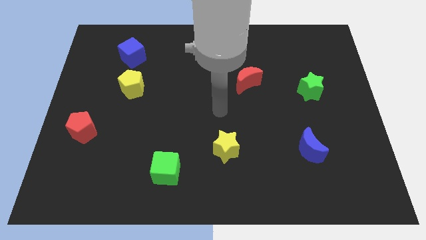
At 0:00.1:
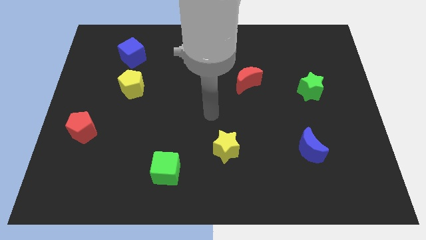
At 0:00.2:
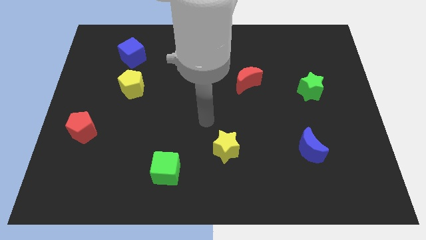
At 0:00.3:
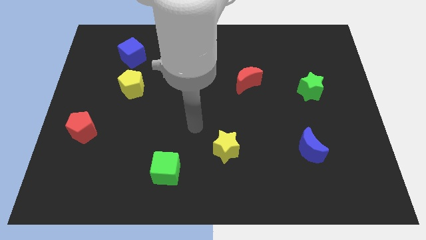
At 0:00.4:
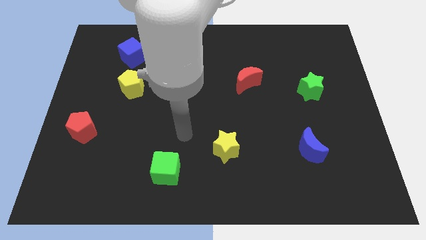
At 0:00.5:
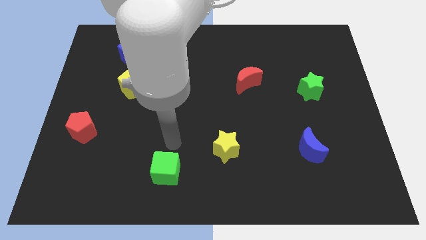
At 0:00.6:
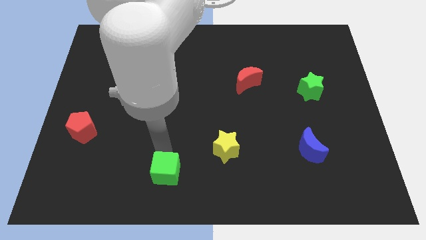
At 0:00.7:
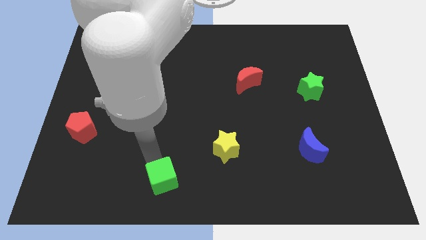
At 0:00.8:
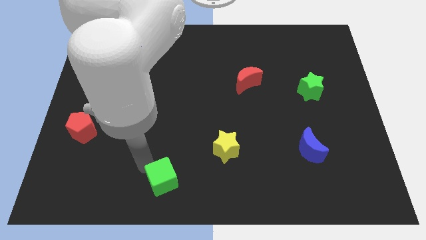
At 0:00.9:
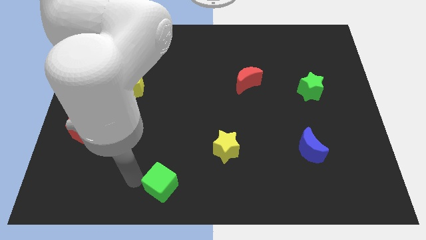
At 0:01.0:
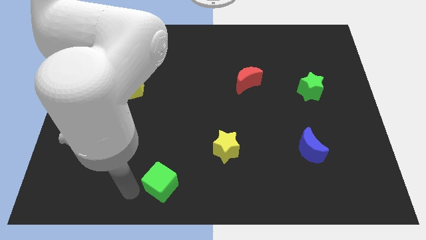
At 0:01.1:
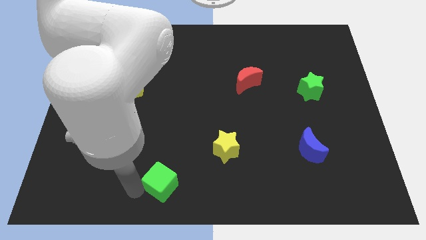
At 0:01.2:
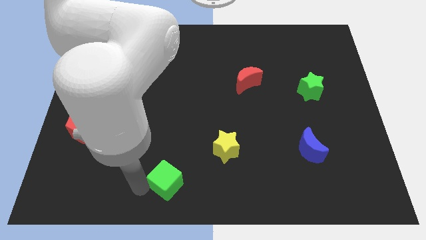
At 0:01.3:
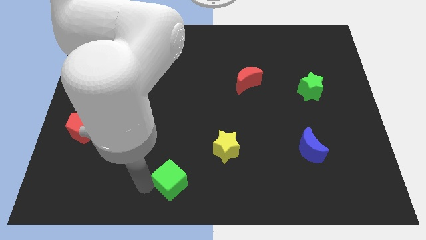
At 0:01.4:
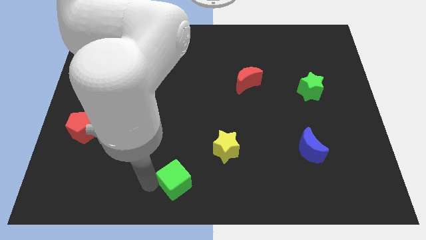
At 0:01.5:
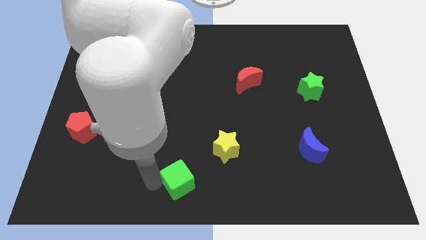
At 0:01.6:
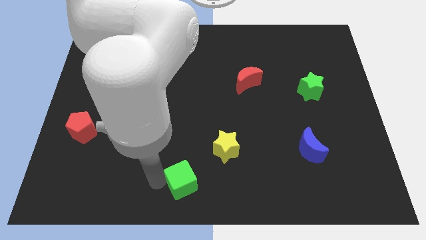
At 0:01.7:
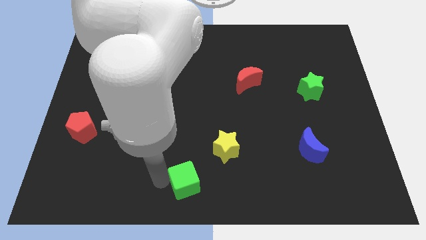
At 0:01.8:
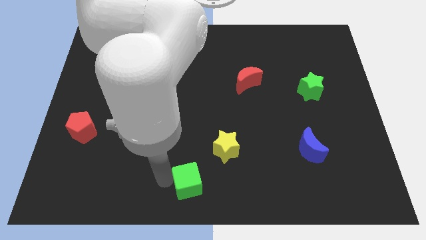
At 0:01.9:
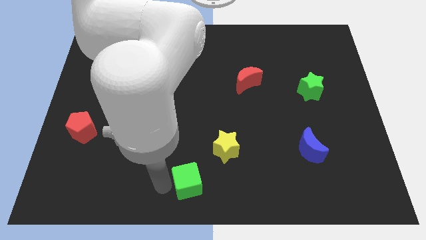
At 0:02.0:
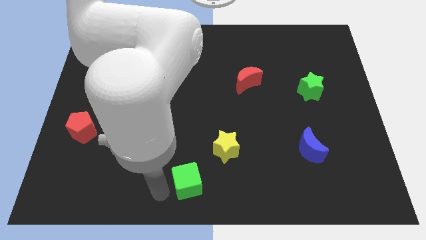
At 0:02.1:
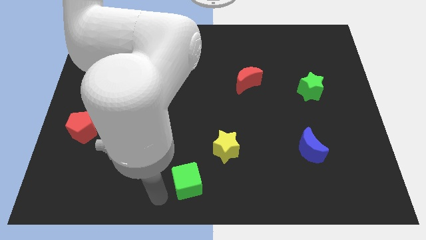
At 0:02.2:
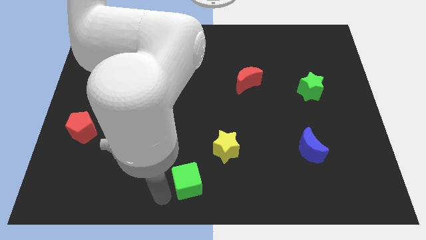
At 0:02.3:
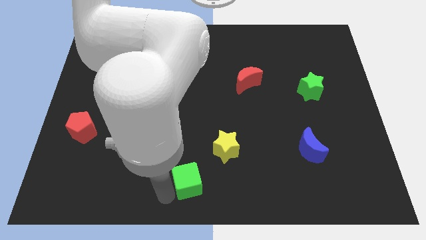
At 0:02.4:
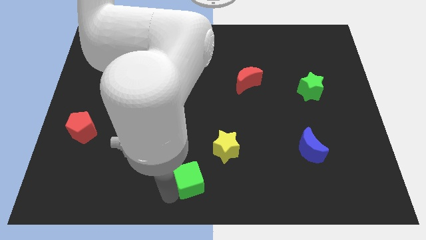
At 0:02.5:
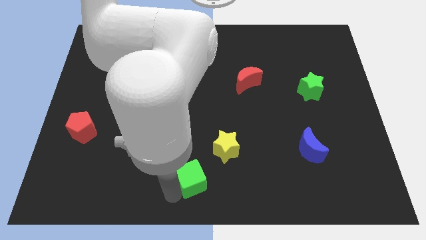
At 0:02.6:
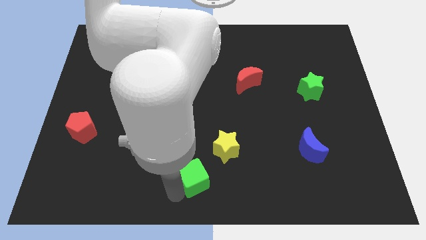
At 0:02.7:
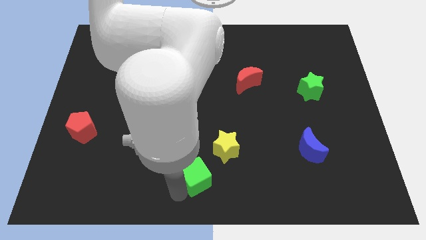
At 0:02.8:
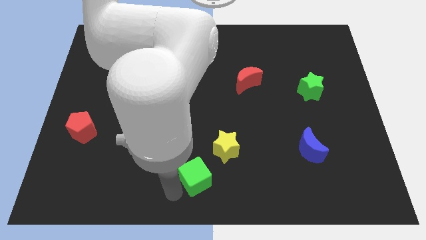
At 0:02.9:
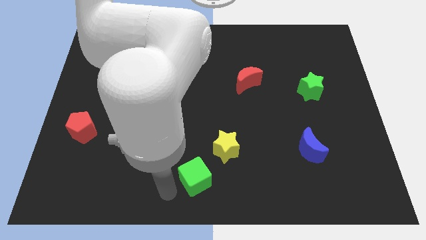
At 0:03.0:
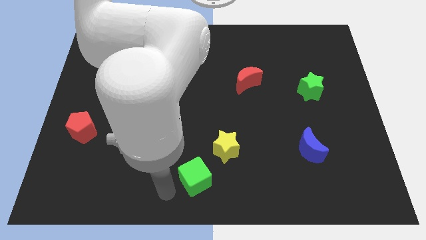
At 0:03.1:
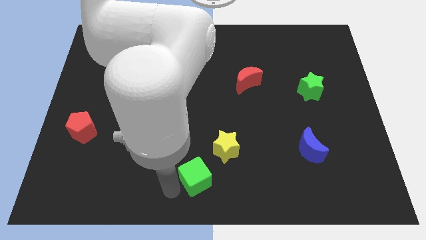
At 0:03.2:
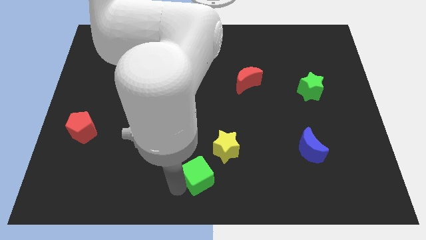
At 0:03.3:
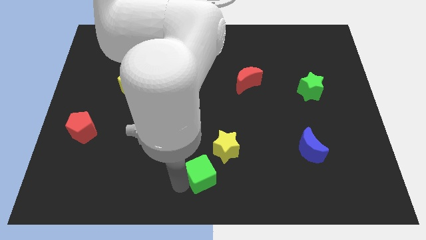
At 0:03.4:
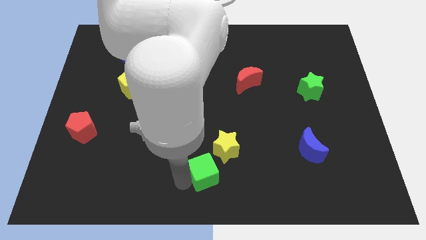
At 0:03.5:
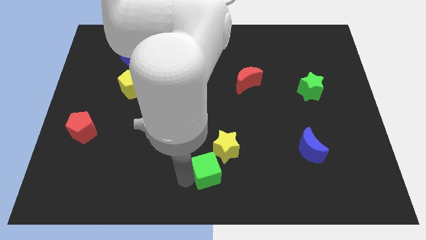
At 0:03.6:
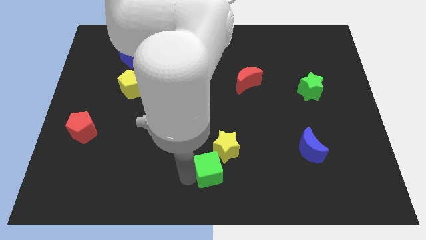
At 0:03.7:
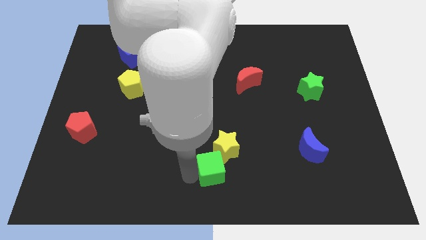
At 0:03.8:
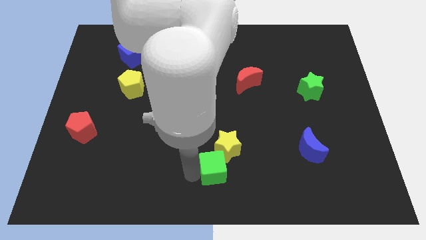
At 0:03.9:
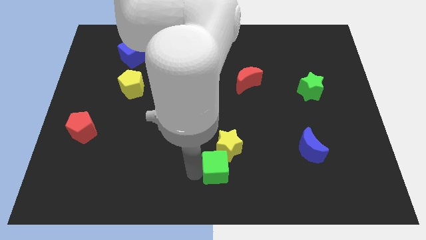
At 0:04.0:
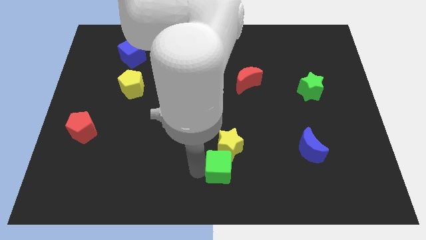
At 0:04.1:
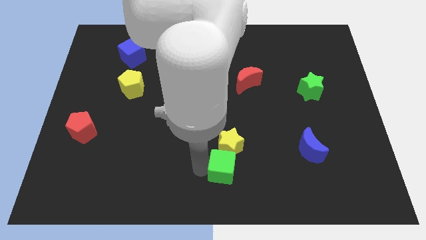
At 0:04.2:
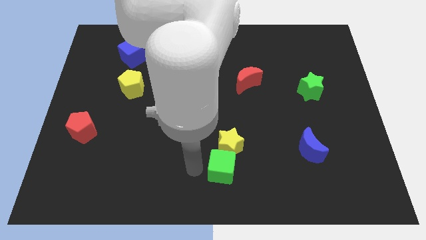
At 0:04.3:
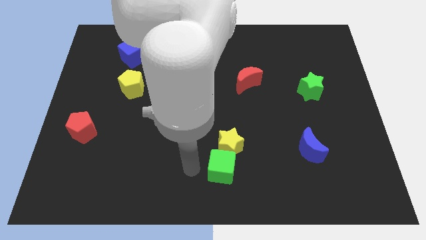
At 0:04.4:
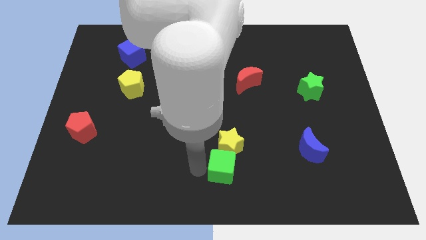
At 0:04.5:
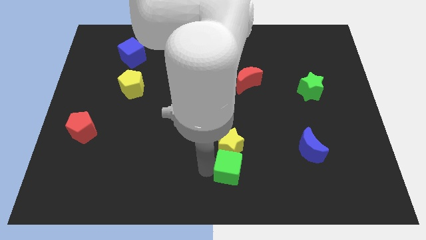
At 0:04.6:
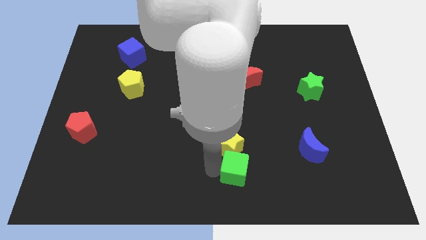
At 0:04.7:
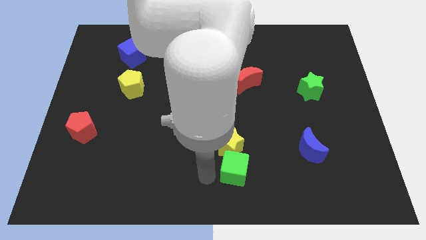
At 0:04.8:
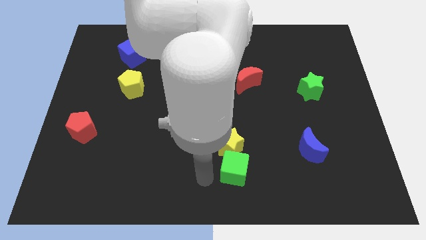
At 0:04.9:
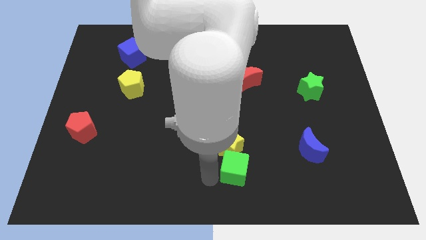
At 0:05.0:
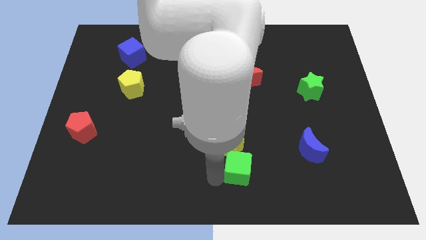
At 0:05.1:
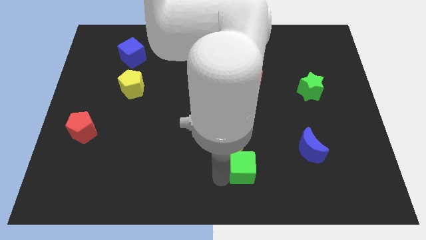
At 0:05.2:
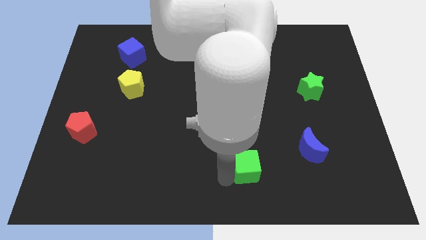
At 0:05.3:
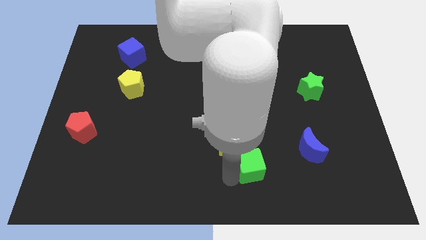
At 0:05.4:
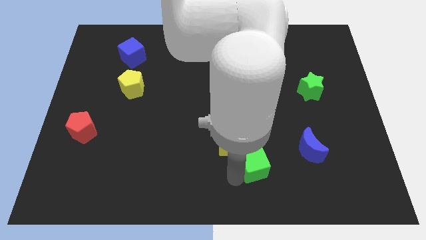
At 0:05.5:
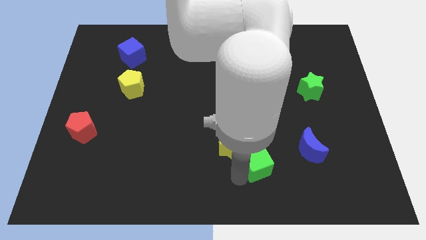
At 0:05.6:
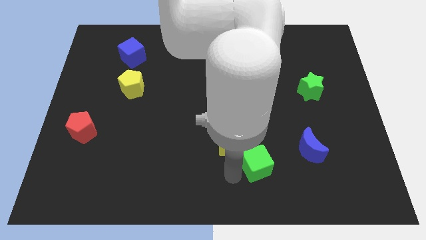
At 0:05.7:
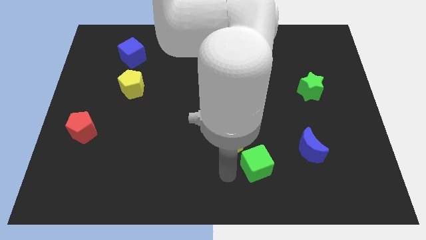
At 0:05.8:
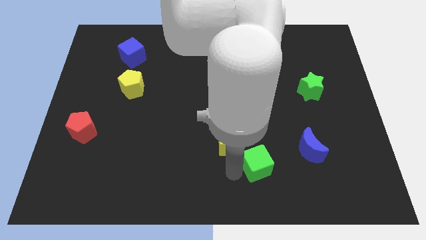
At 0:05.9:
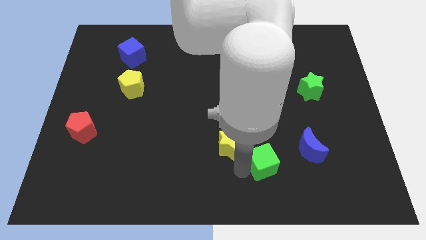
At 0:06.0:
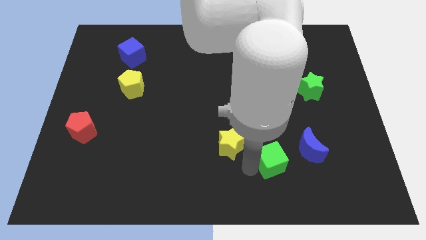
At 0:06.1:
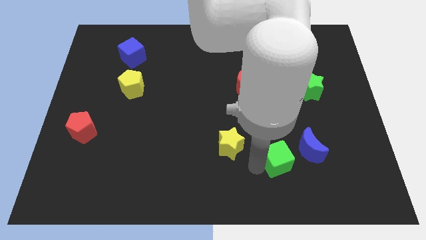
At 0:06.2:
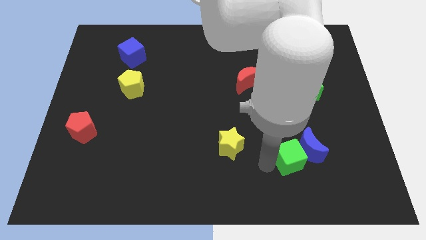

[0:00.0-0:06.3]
push the green cube next to the blue moon
